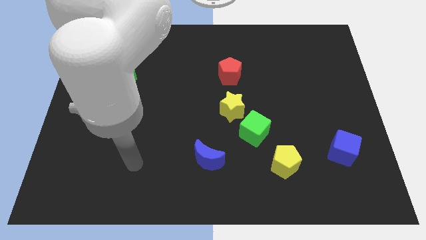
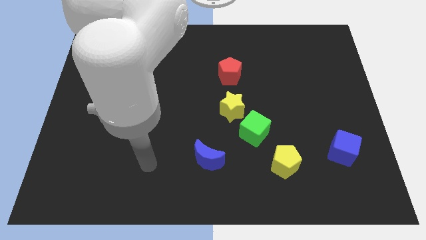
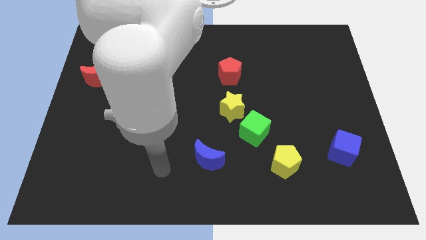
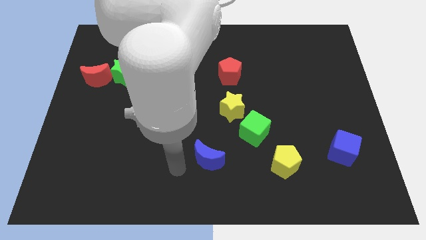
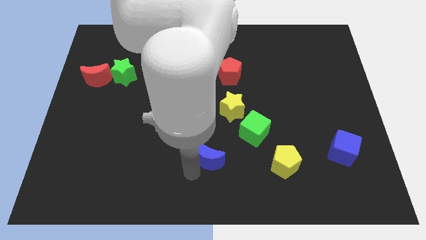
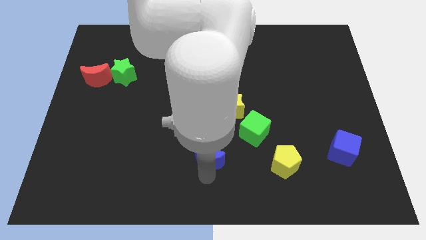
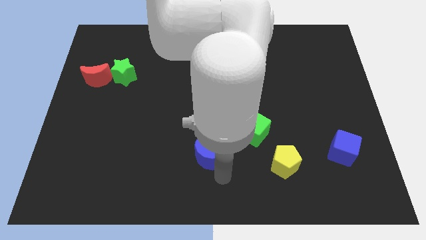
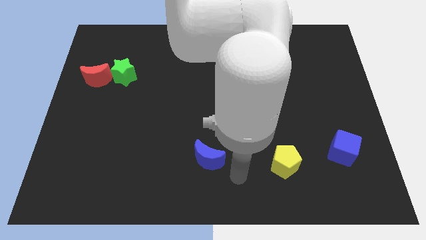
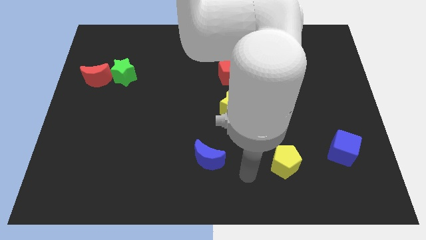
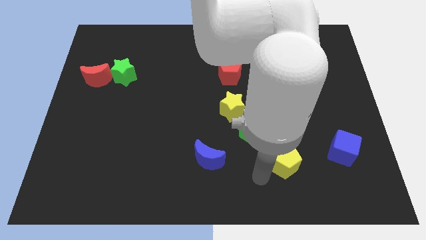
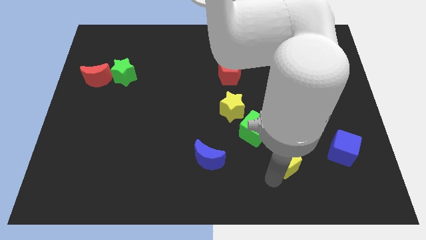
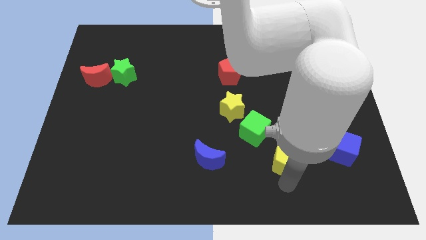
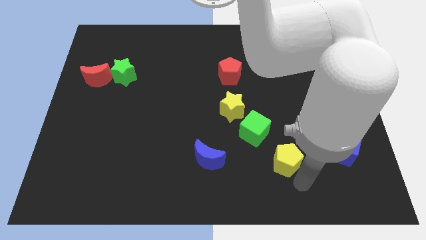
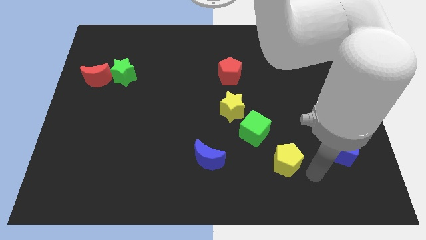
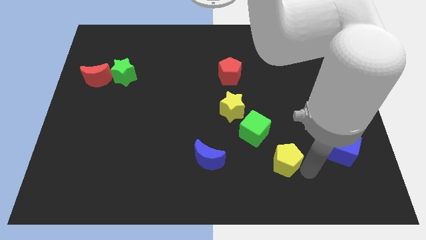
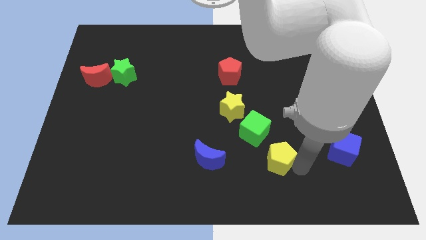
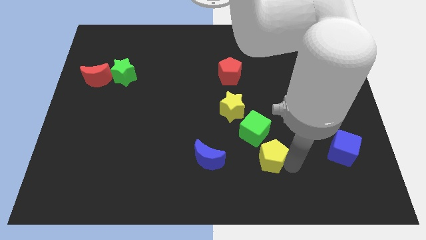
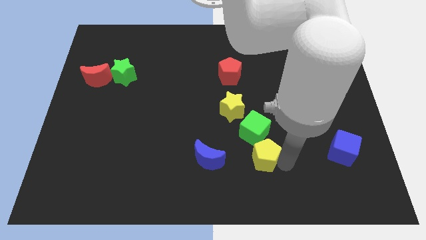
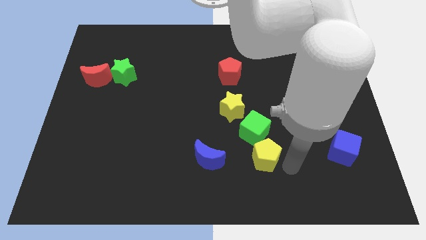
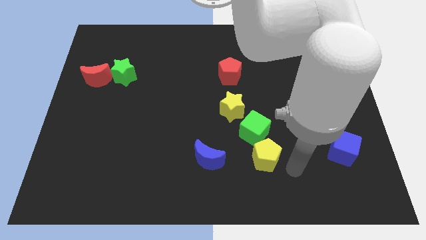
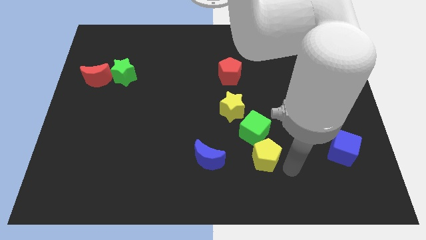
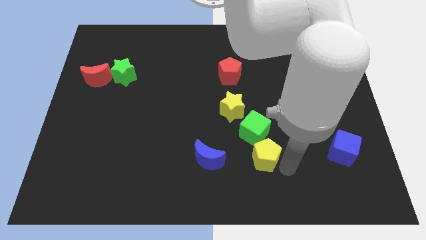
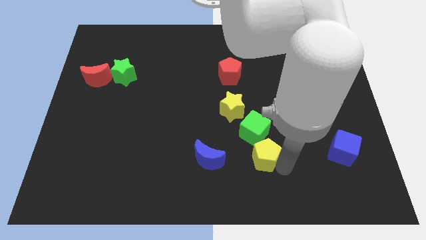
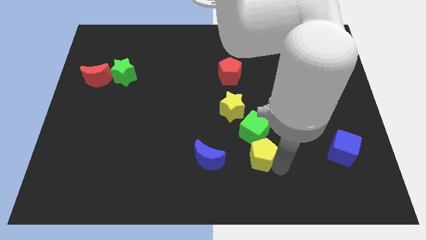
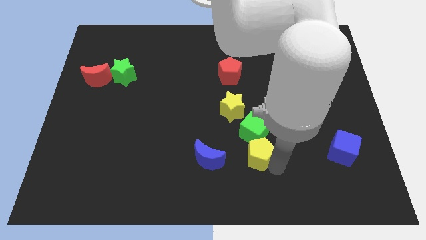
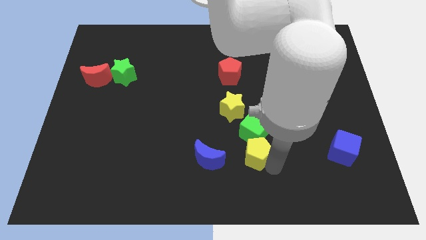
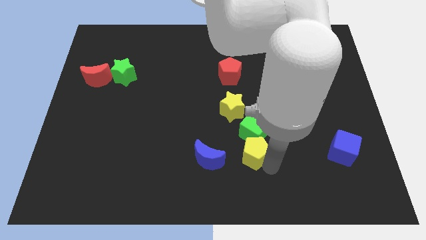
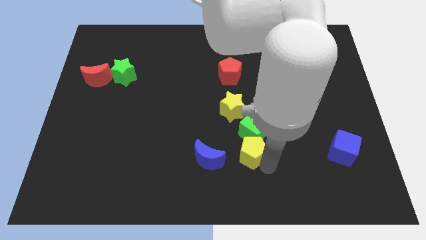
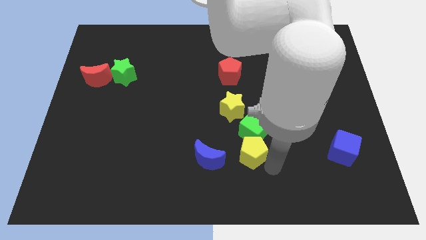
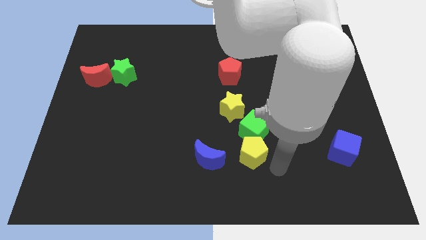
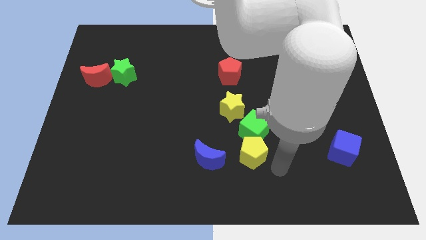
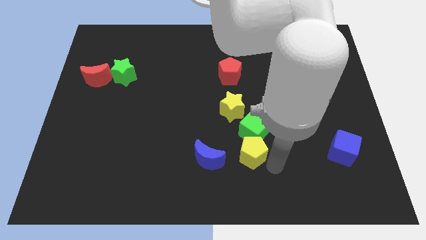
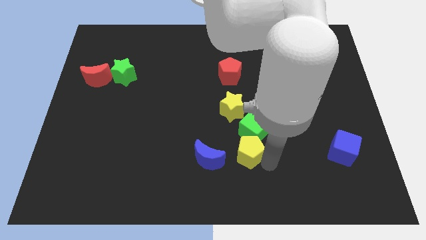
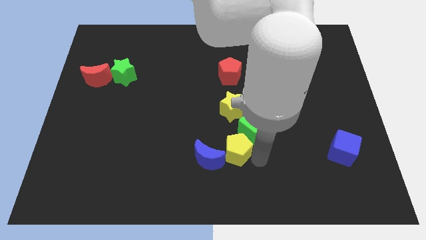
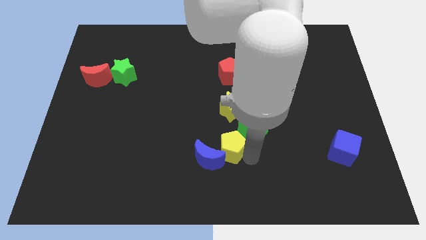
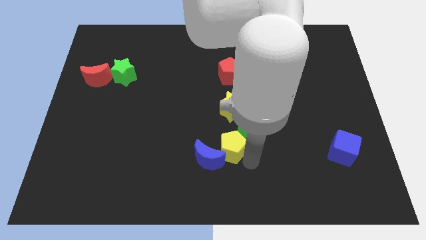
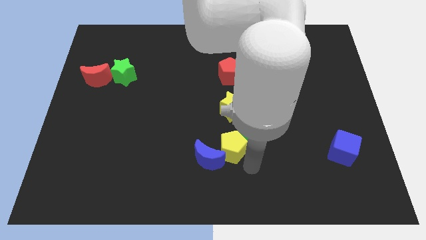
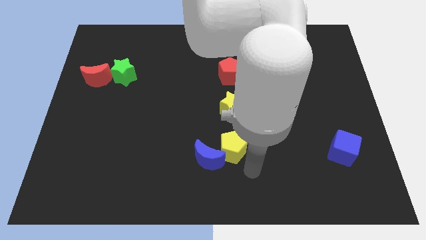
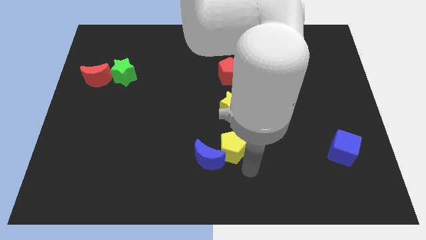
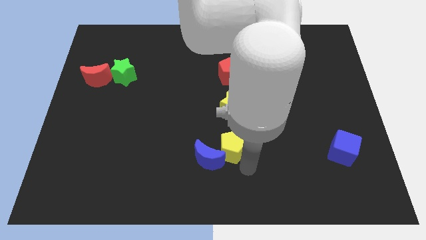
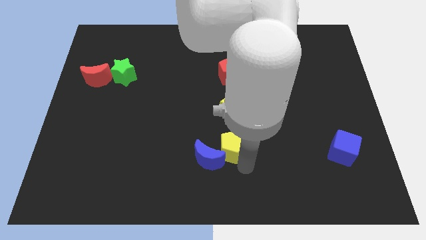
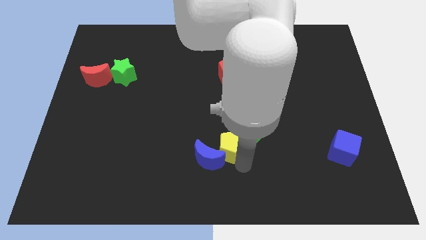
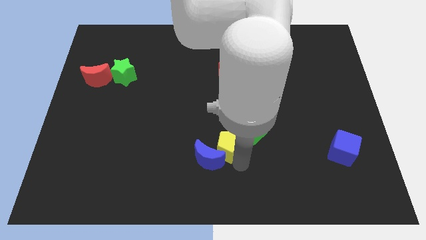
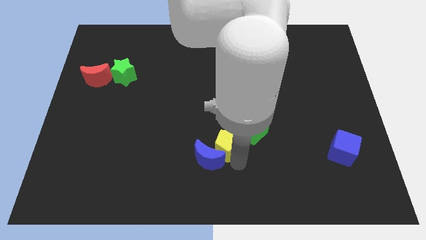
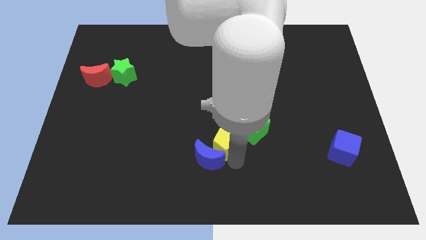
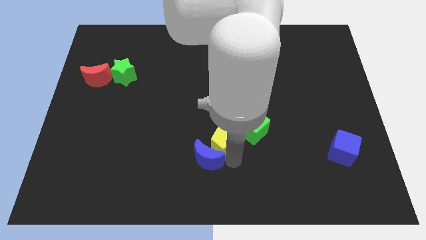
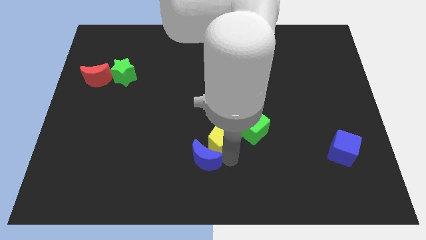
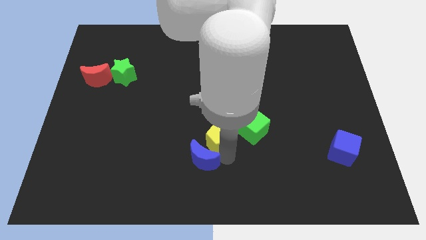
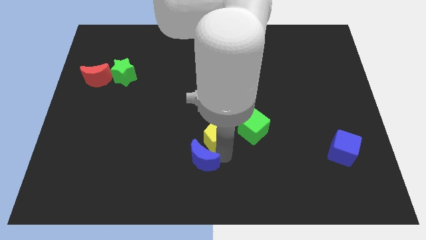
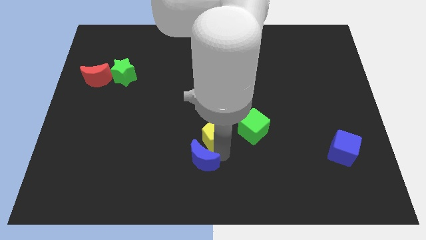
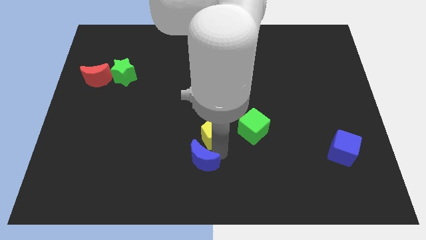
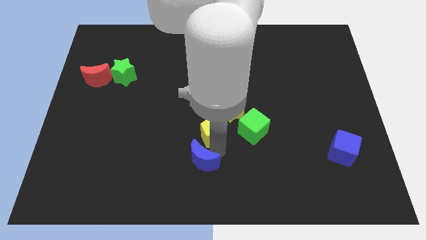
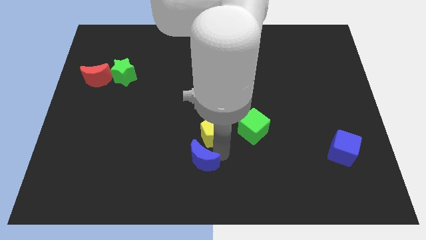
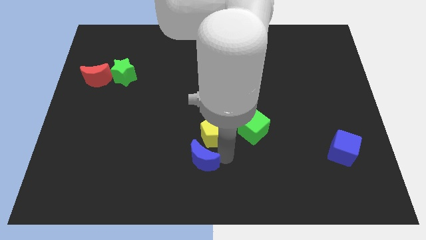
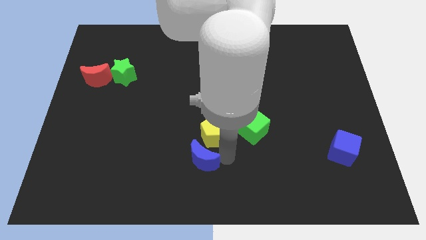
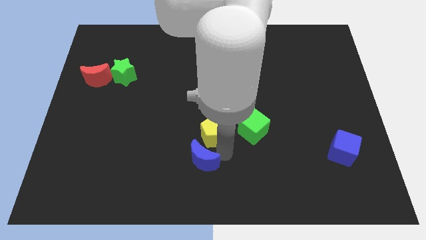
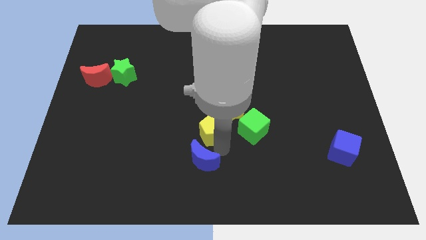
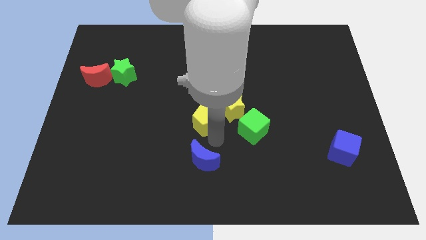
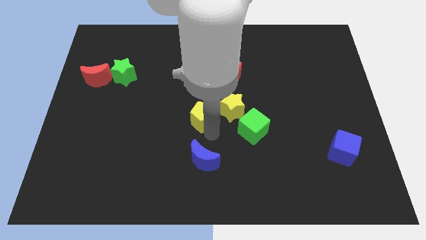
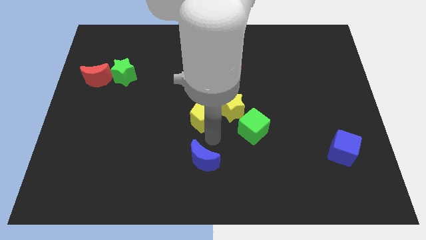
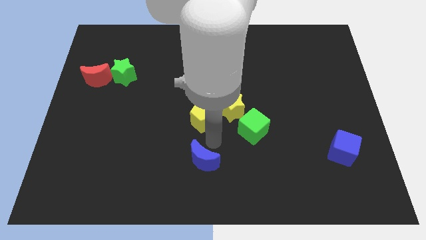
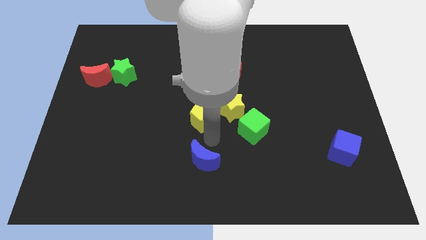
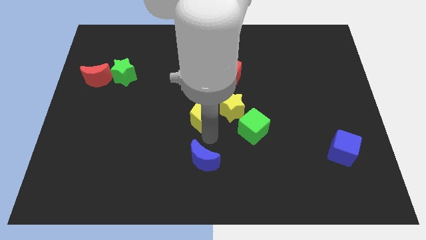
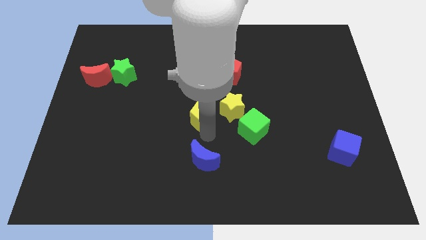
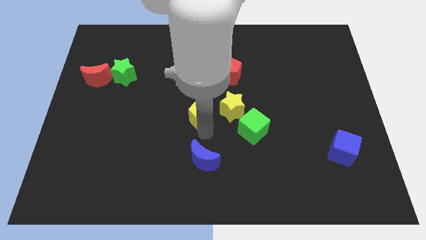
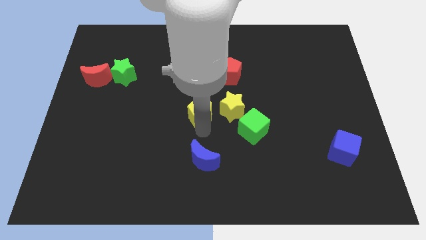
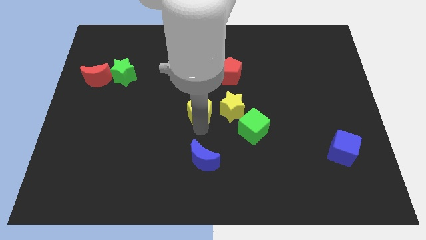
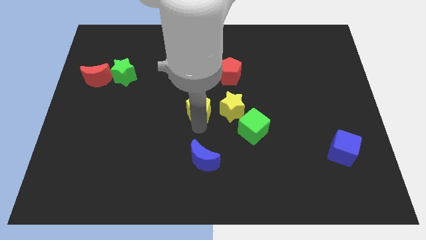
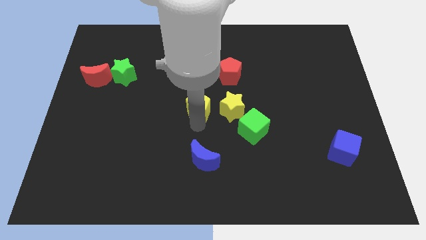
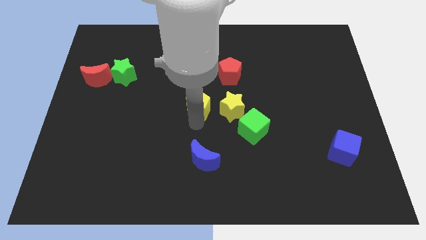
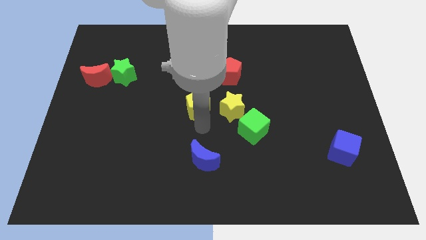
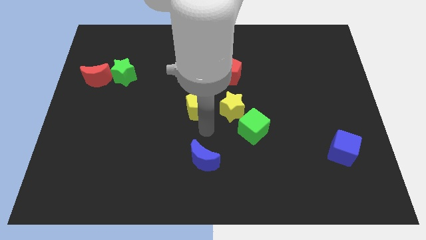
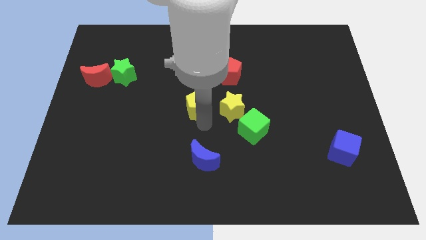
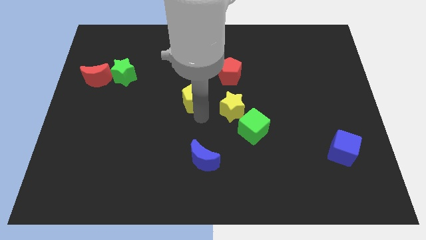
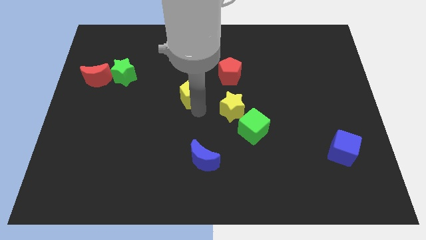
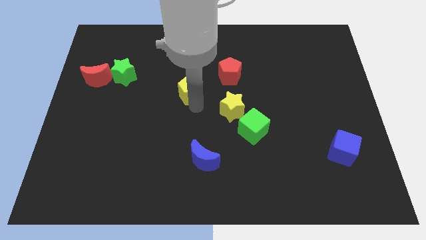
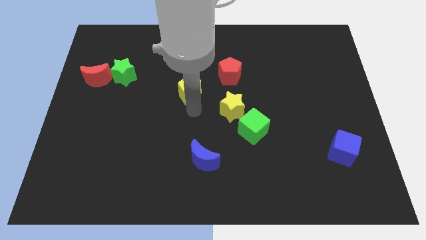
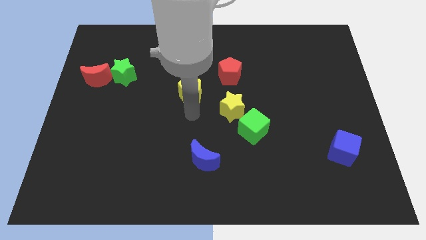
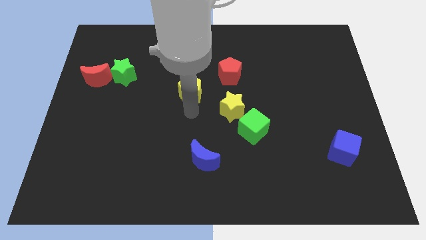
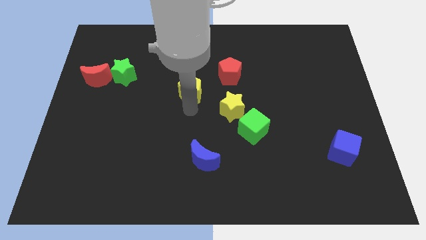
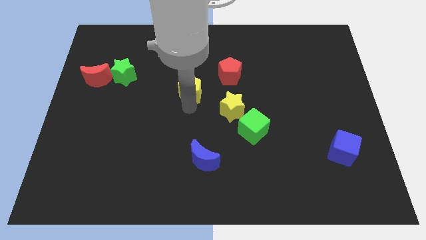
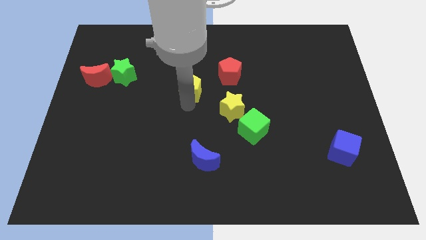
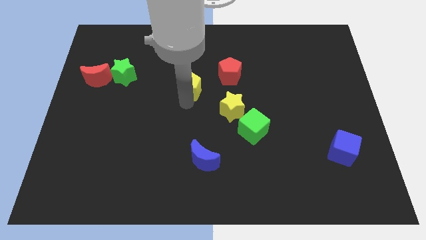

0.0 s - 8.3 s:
put the yellow pentagon left of the red pentagon
